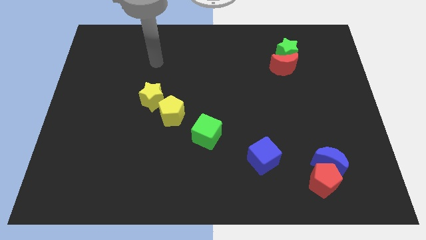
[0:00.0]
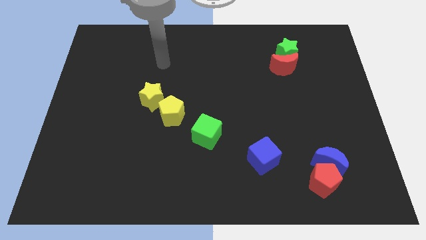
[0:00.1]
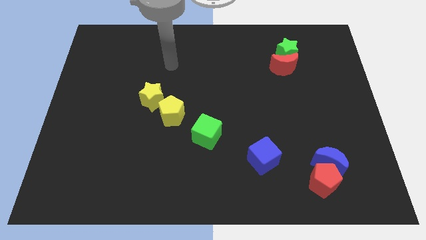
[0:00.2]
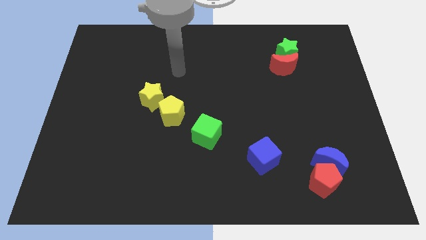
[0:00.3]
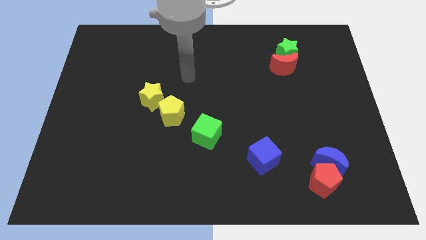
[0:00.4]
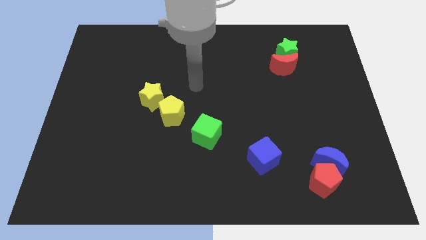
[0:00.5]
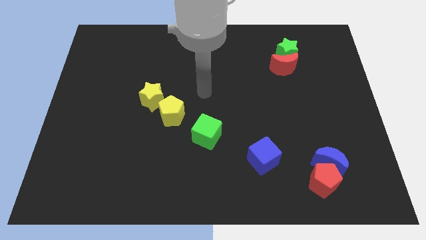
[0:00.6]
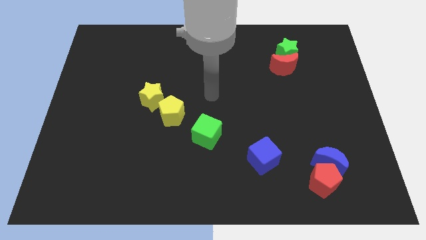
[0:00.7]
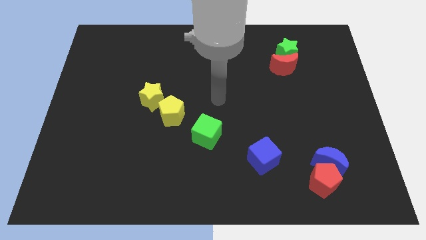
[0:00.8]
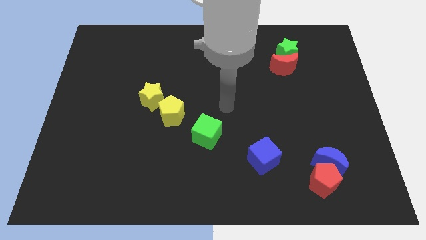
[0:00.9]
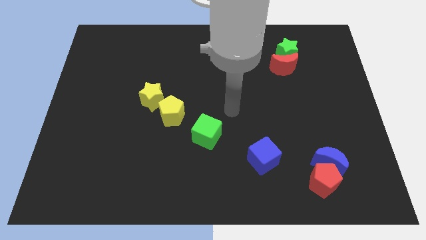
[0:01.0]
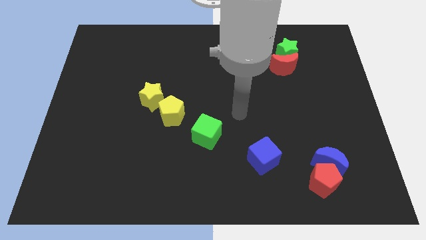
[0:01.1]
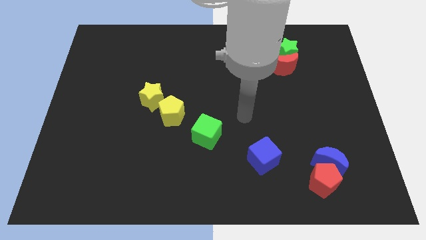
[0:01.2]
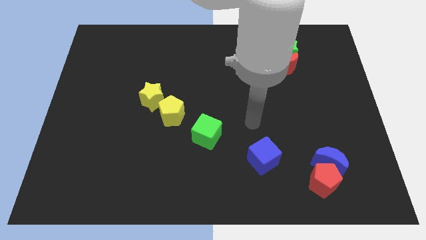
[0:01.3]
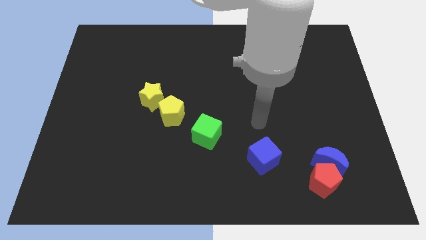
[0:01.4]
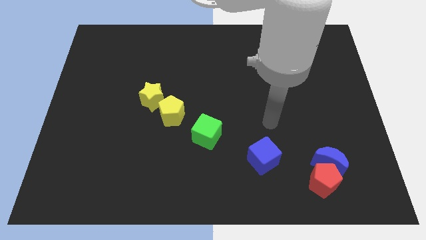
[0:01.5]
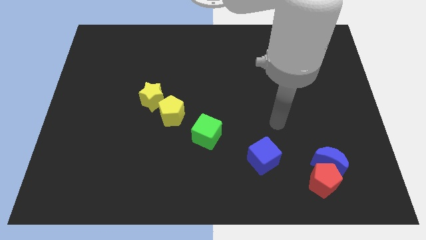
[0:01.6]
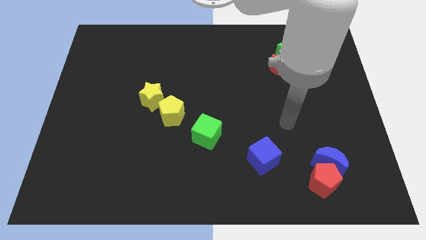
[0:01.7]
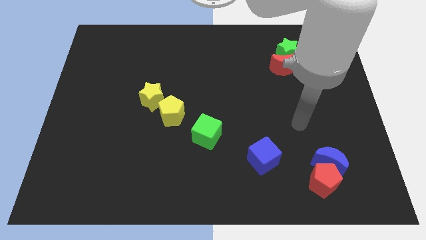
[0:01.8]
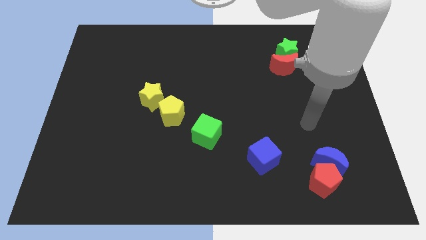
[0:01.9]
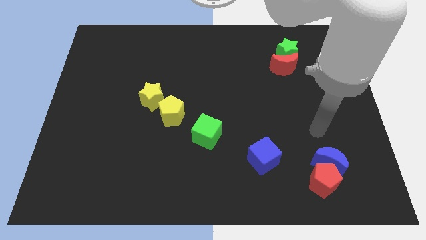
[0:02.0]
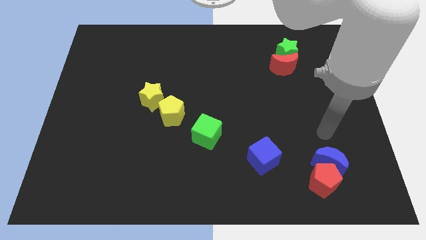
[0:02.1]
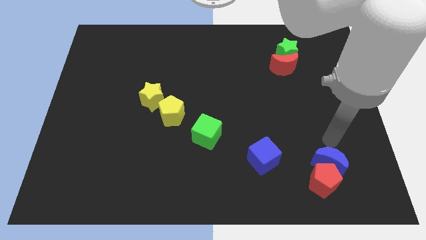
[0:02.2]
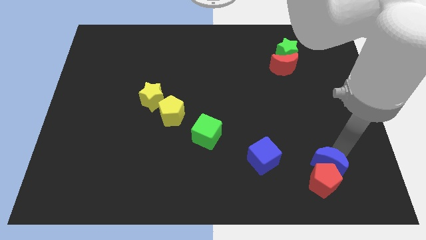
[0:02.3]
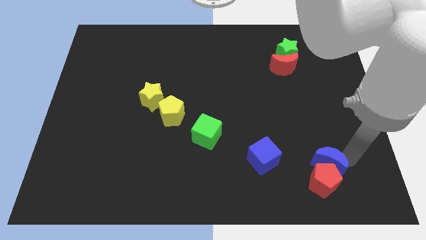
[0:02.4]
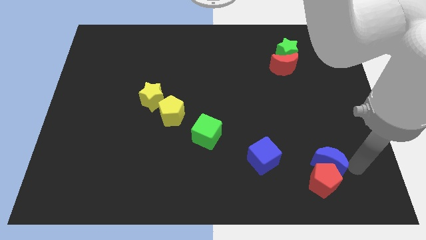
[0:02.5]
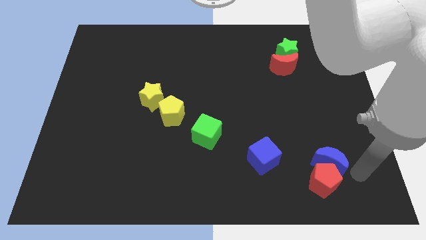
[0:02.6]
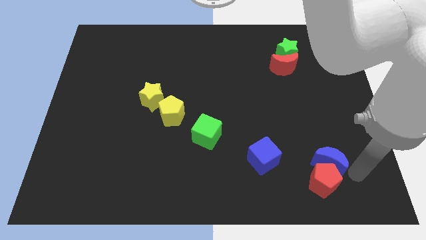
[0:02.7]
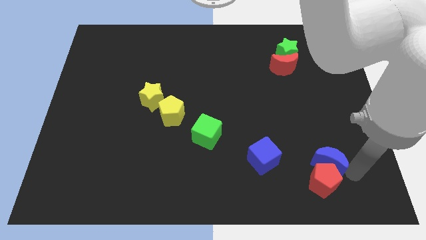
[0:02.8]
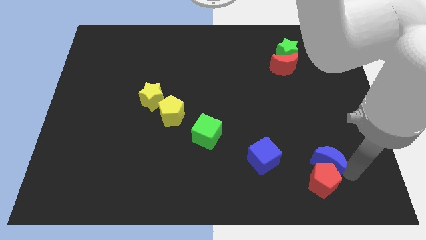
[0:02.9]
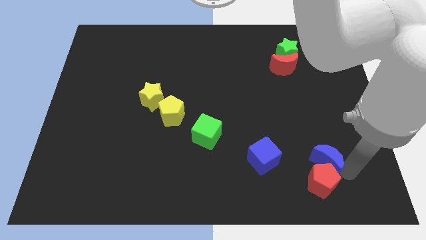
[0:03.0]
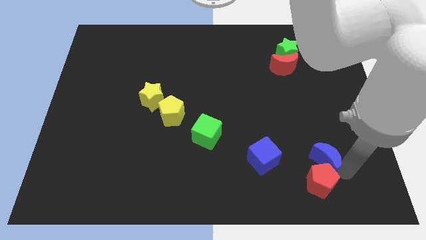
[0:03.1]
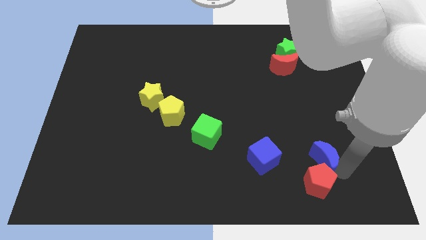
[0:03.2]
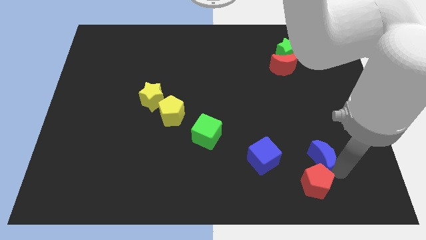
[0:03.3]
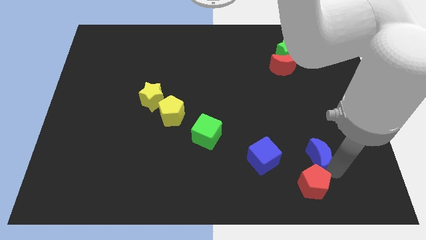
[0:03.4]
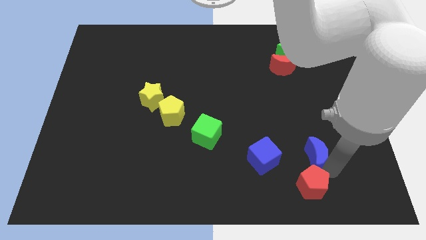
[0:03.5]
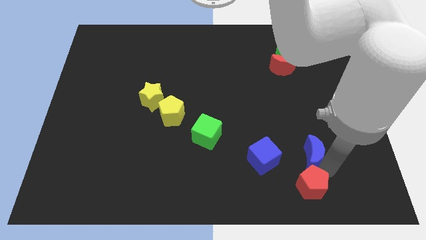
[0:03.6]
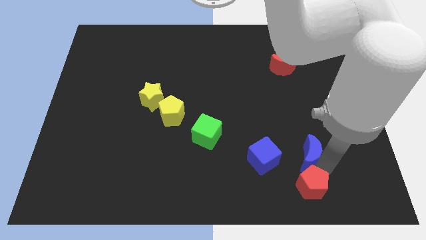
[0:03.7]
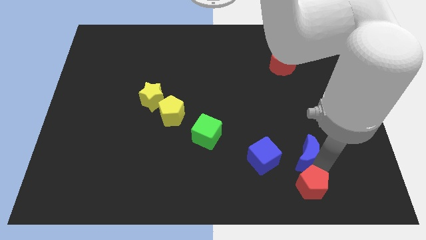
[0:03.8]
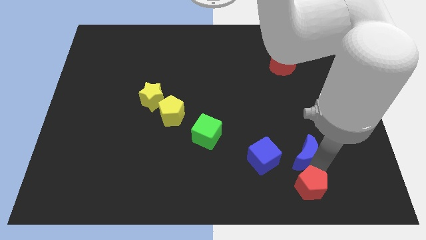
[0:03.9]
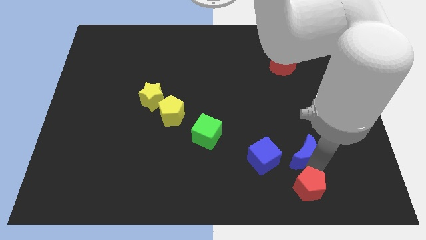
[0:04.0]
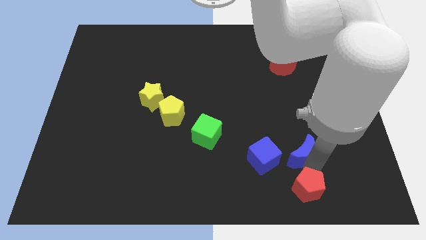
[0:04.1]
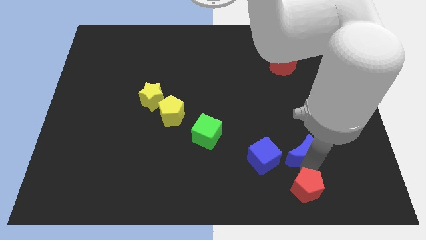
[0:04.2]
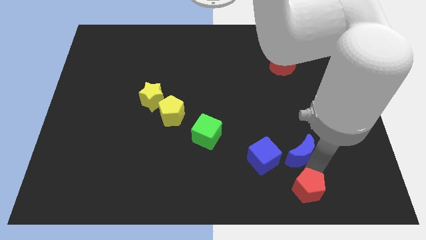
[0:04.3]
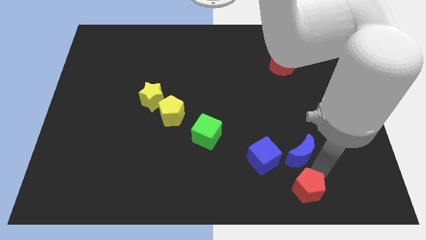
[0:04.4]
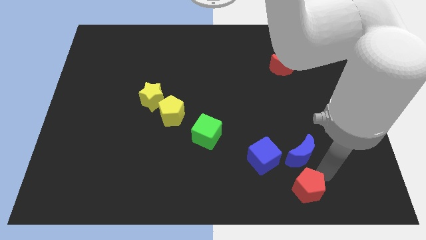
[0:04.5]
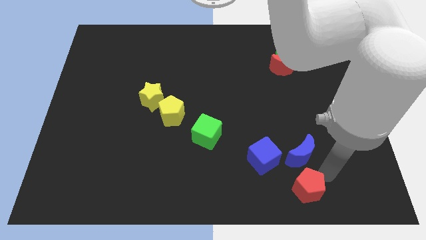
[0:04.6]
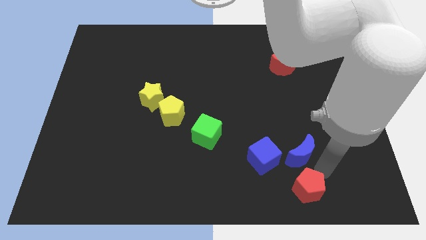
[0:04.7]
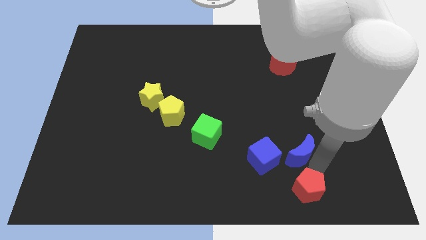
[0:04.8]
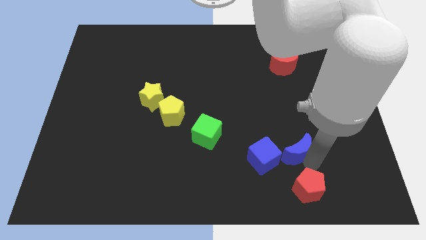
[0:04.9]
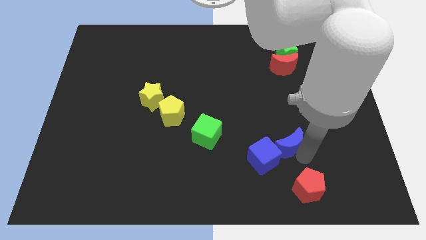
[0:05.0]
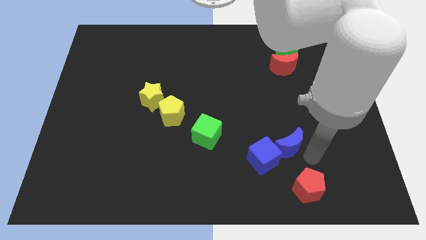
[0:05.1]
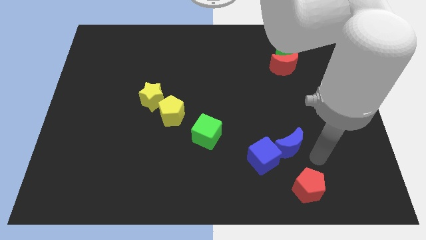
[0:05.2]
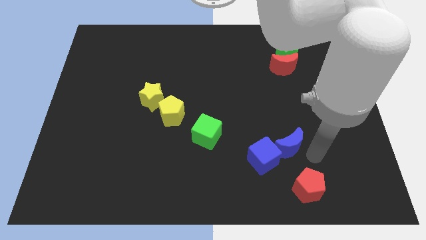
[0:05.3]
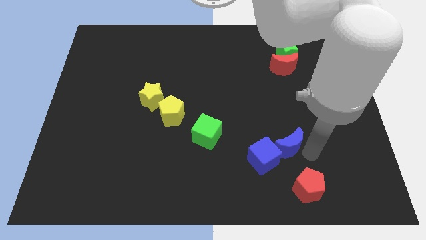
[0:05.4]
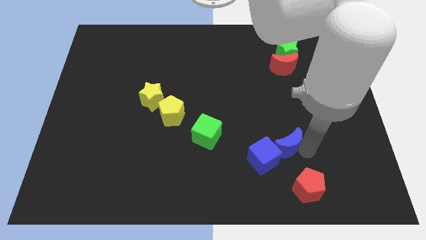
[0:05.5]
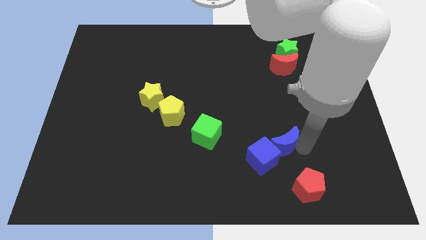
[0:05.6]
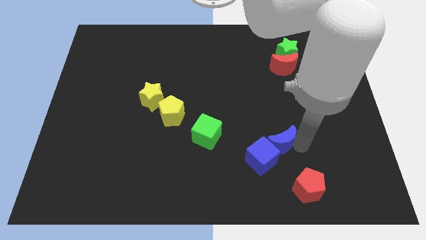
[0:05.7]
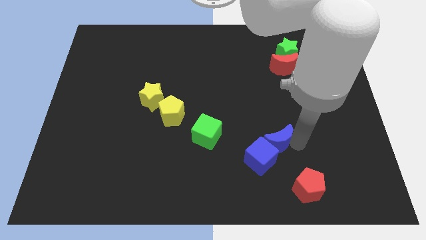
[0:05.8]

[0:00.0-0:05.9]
push the blue moon just right of the green cube

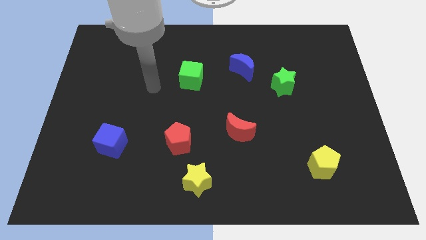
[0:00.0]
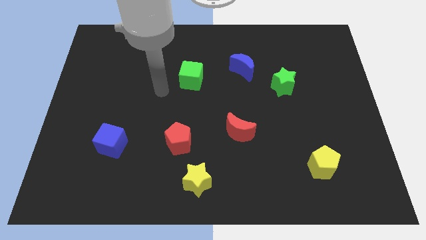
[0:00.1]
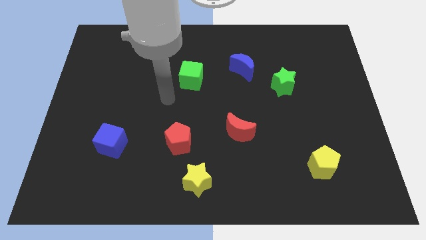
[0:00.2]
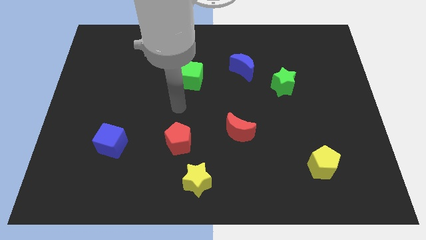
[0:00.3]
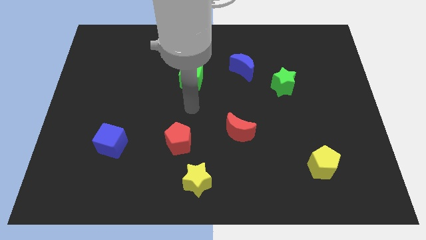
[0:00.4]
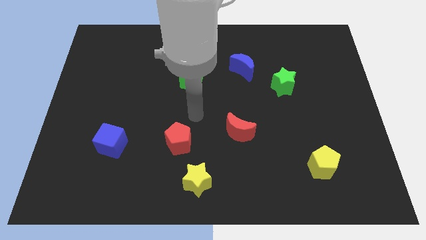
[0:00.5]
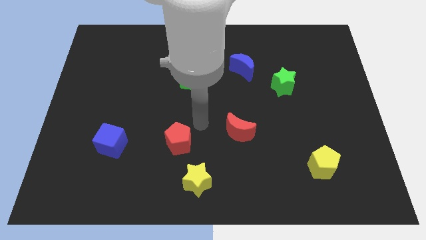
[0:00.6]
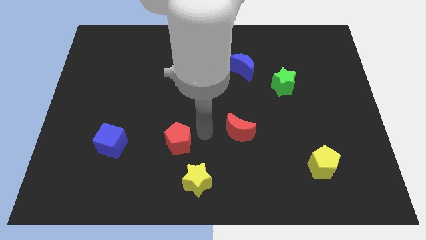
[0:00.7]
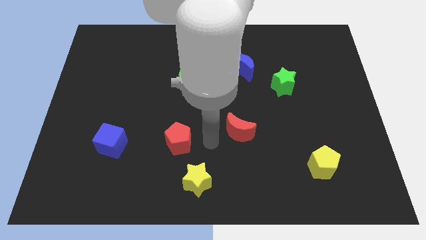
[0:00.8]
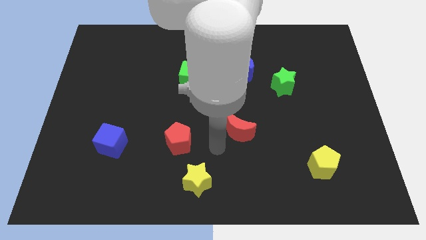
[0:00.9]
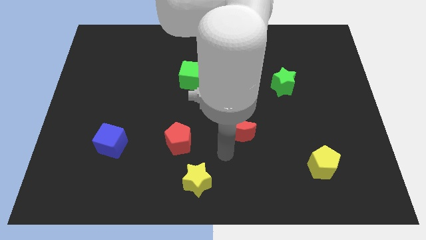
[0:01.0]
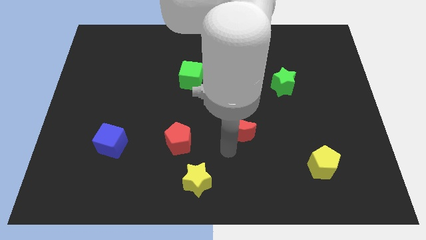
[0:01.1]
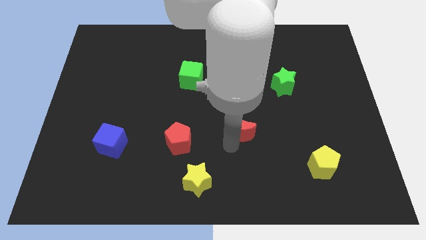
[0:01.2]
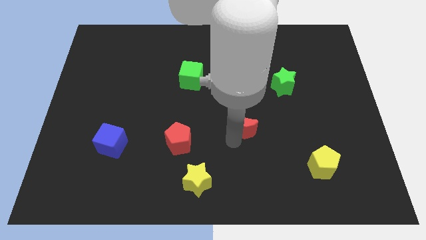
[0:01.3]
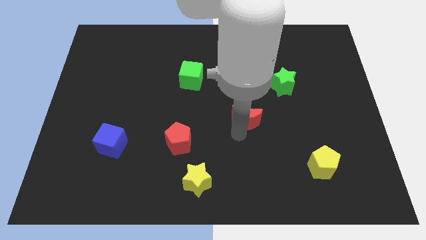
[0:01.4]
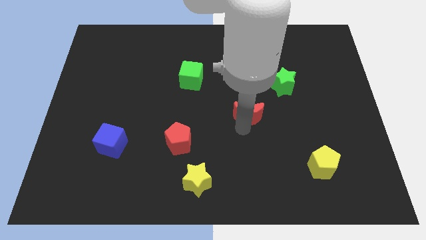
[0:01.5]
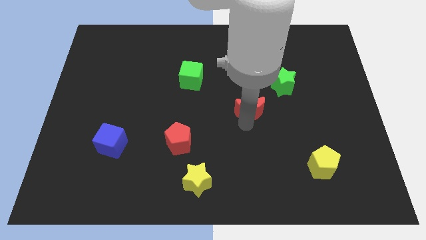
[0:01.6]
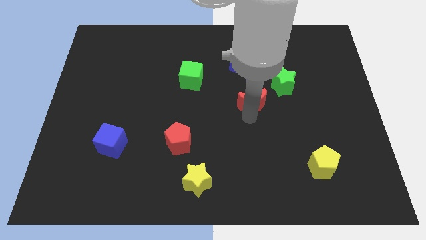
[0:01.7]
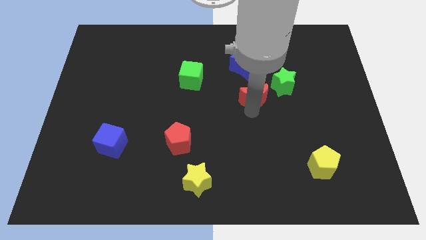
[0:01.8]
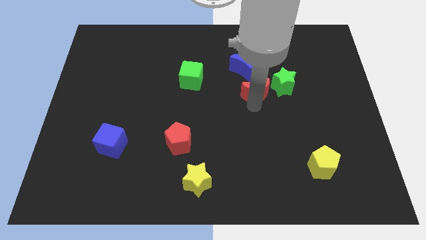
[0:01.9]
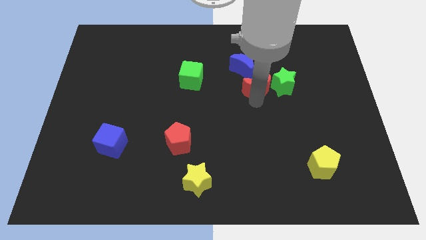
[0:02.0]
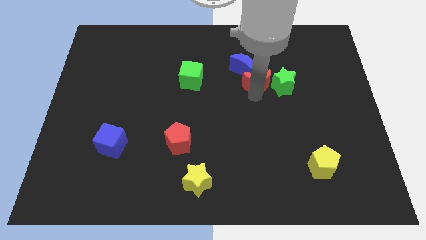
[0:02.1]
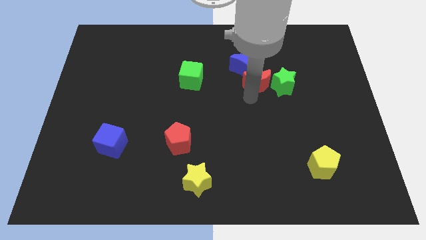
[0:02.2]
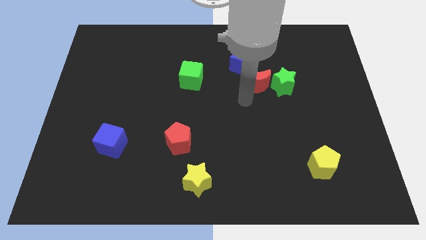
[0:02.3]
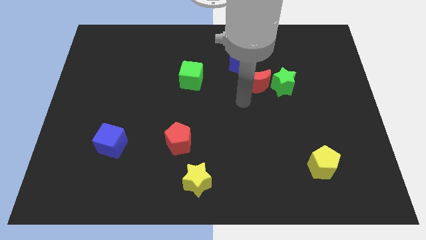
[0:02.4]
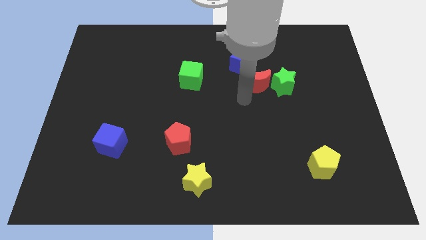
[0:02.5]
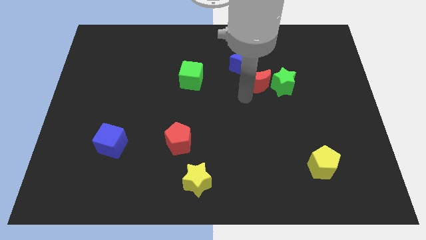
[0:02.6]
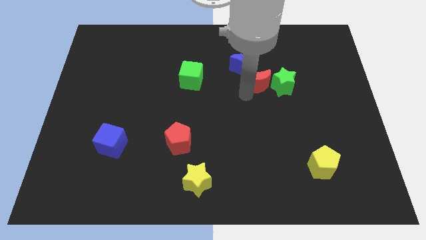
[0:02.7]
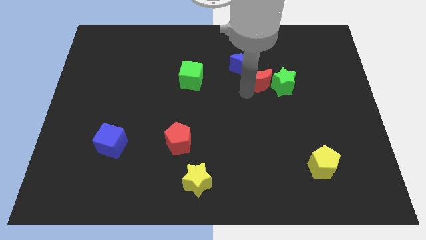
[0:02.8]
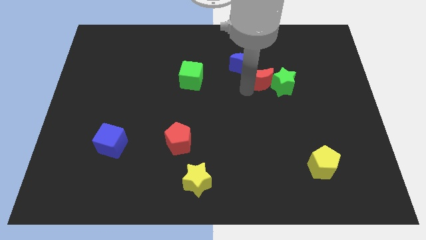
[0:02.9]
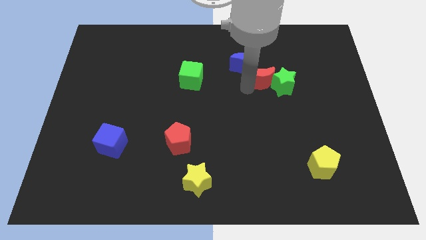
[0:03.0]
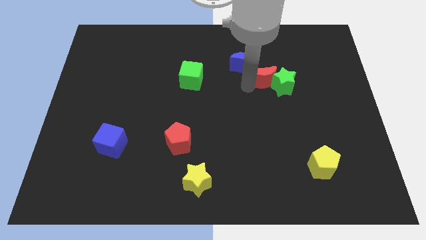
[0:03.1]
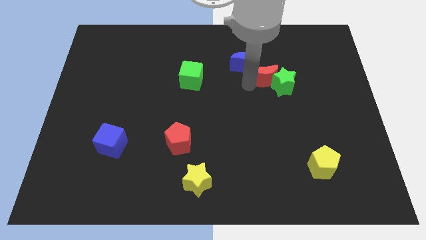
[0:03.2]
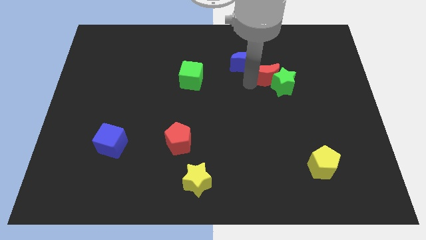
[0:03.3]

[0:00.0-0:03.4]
put the red moon to the top of the green star
